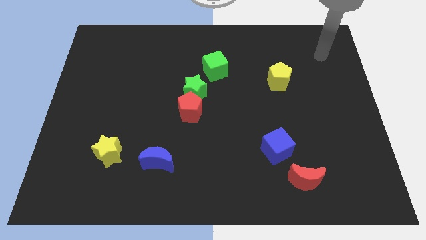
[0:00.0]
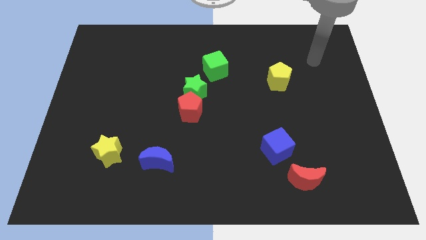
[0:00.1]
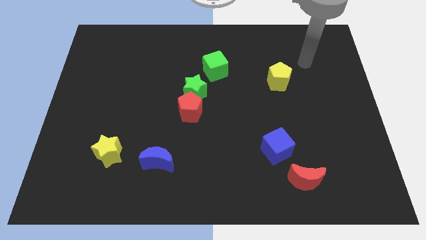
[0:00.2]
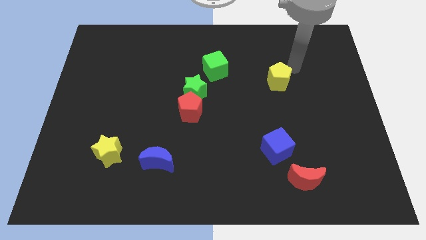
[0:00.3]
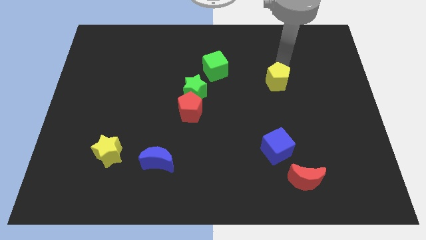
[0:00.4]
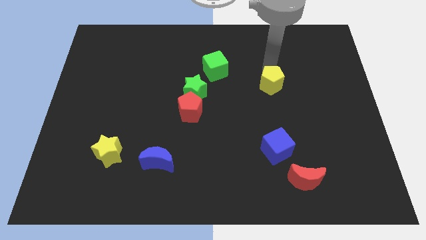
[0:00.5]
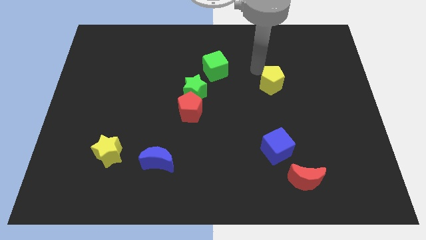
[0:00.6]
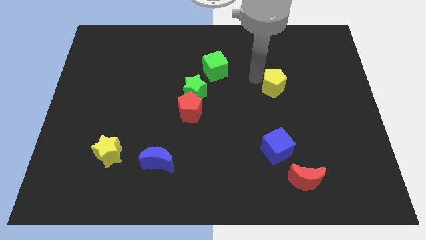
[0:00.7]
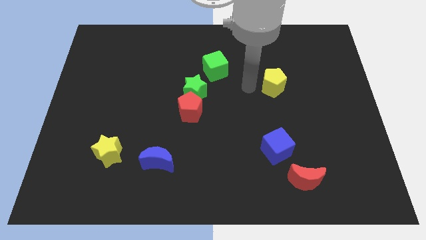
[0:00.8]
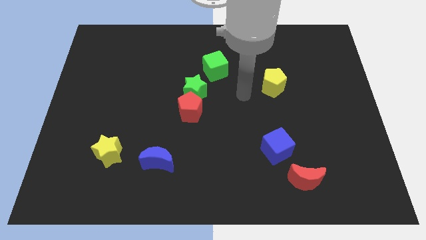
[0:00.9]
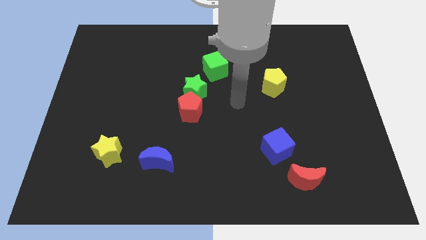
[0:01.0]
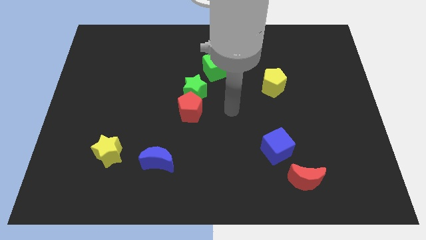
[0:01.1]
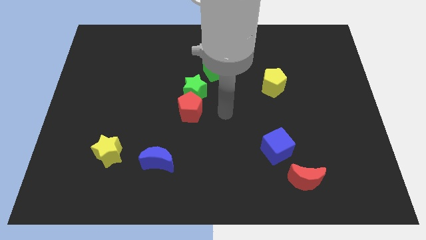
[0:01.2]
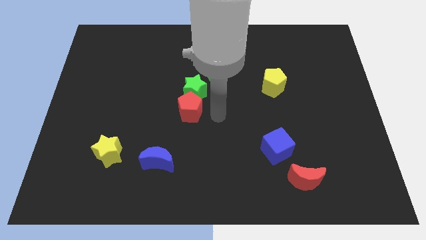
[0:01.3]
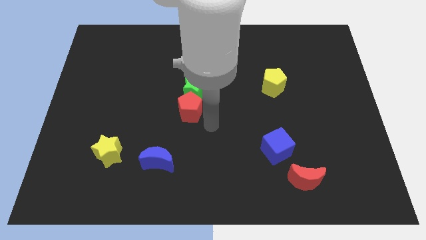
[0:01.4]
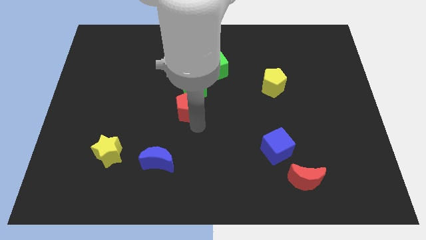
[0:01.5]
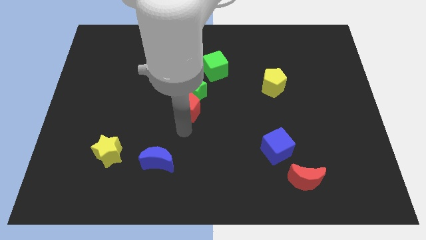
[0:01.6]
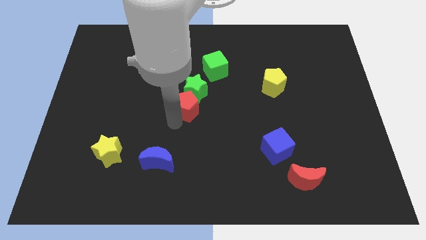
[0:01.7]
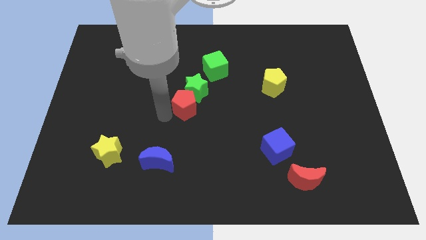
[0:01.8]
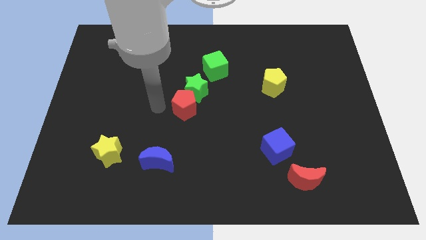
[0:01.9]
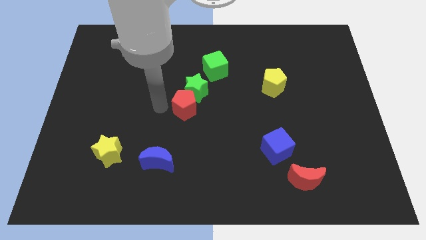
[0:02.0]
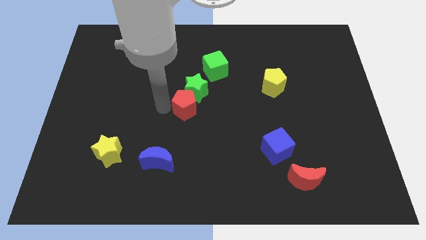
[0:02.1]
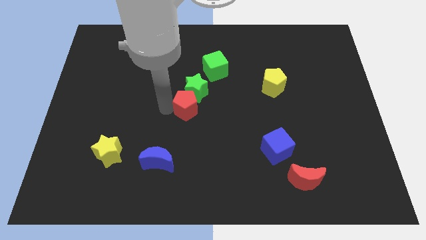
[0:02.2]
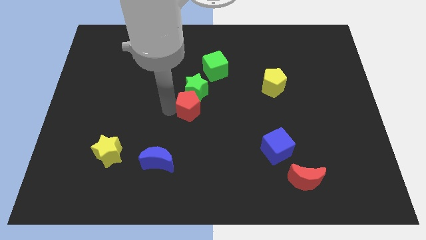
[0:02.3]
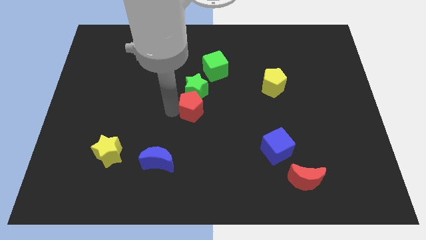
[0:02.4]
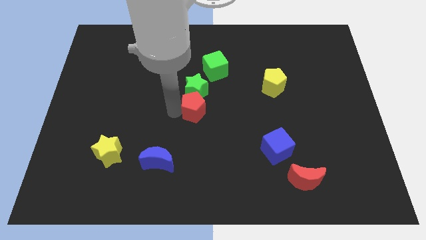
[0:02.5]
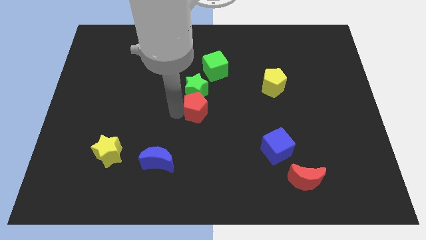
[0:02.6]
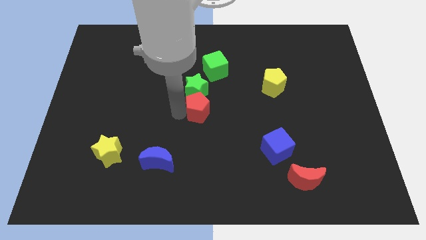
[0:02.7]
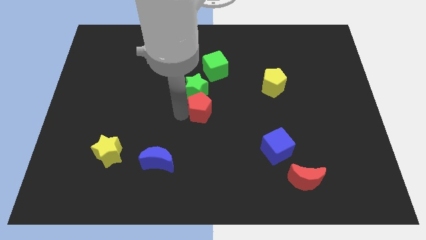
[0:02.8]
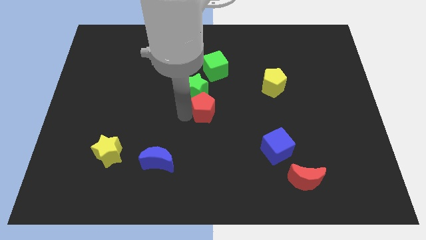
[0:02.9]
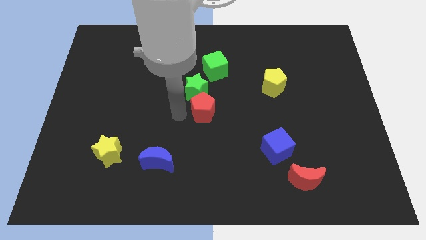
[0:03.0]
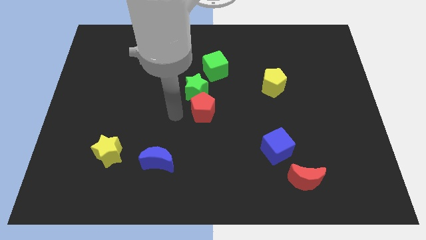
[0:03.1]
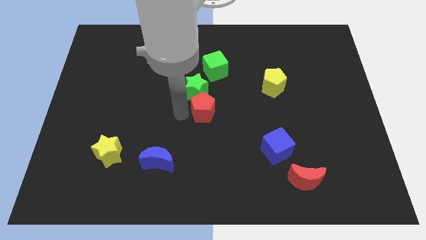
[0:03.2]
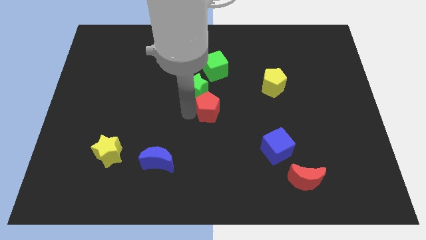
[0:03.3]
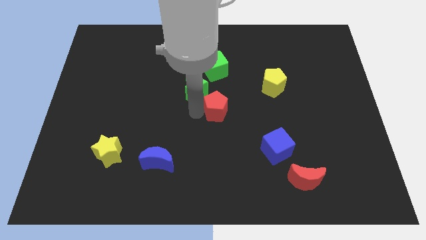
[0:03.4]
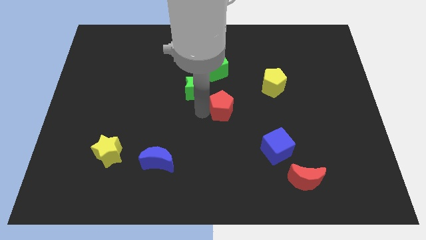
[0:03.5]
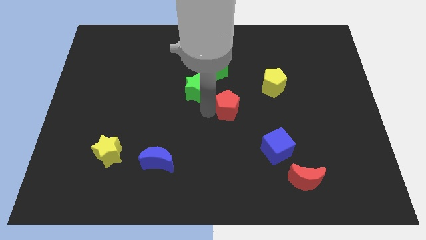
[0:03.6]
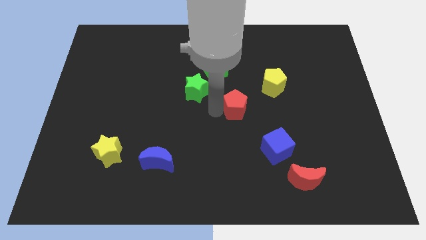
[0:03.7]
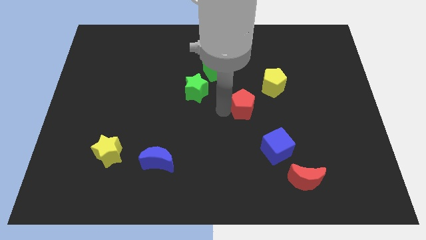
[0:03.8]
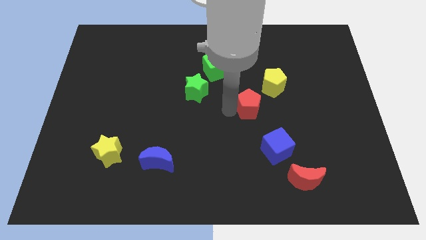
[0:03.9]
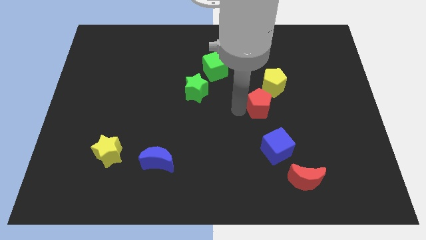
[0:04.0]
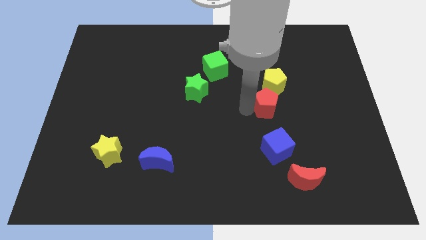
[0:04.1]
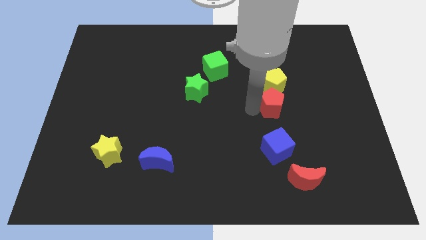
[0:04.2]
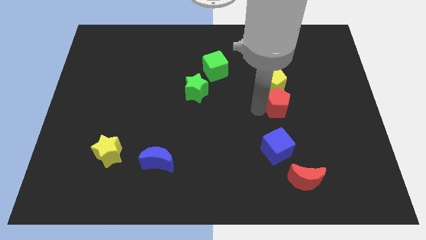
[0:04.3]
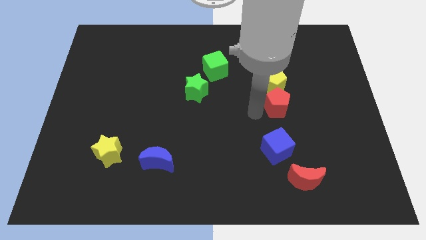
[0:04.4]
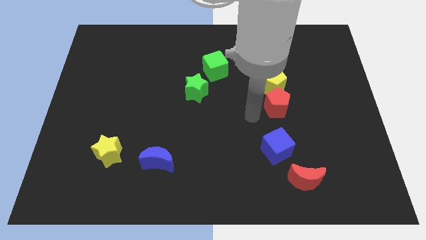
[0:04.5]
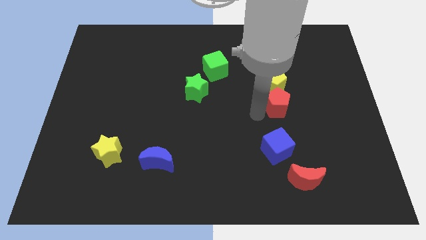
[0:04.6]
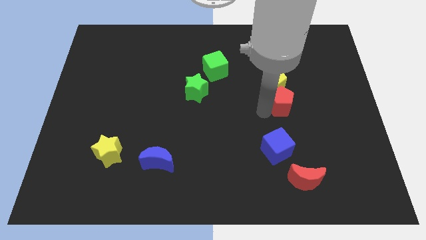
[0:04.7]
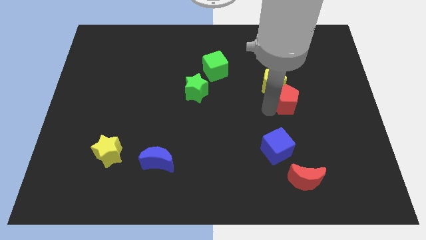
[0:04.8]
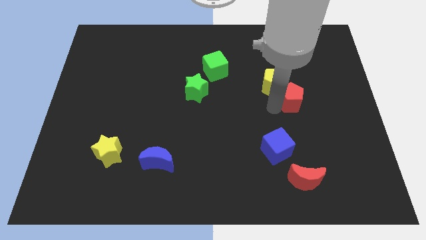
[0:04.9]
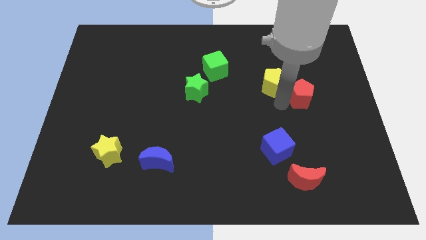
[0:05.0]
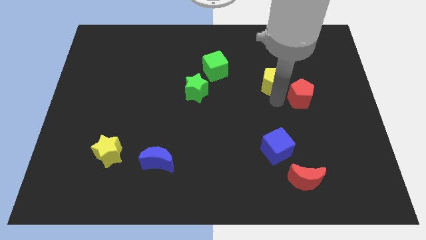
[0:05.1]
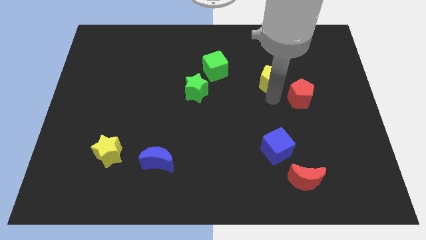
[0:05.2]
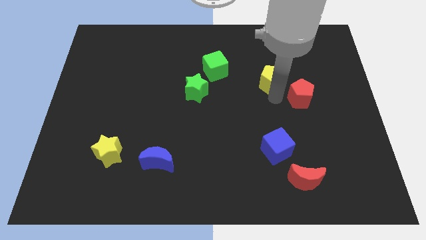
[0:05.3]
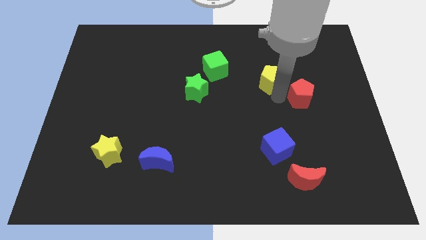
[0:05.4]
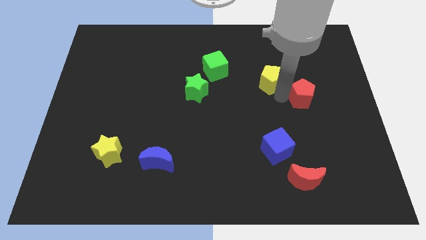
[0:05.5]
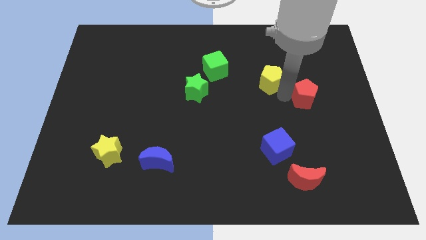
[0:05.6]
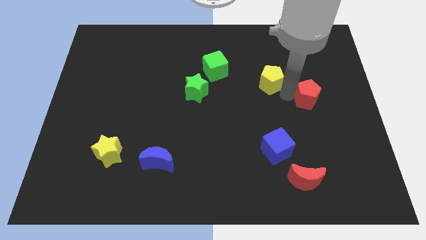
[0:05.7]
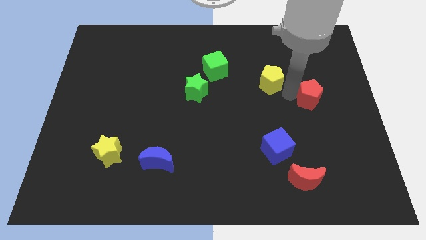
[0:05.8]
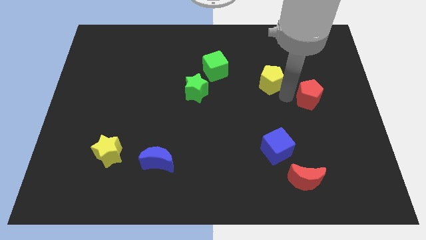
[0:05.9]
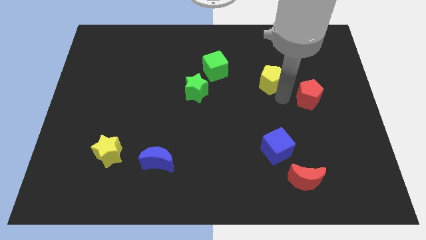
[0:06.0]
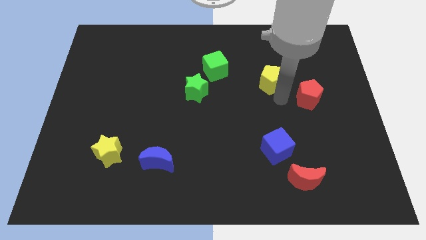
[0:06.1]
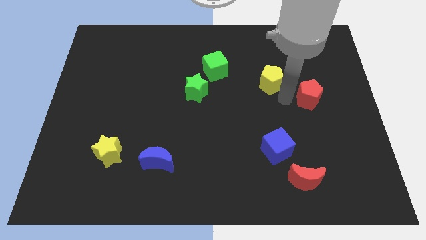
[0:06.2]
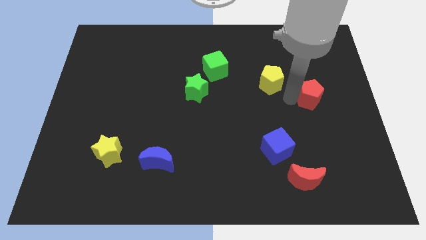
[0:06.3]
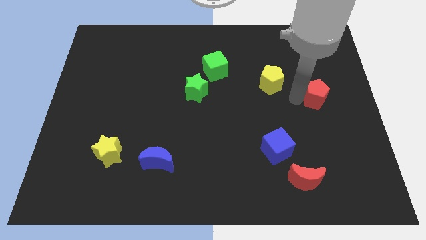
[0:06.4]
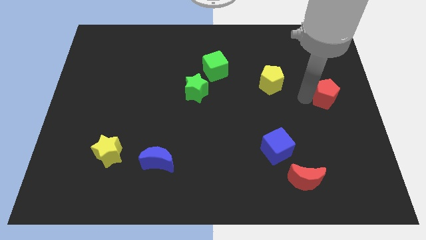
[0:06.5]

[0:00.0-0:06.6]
push the red pentagon to the right side of the board

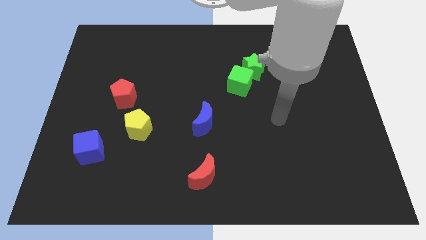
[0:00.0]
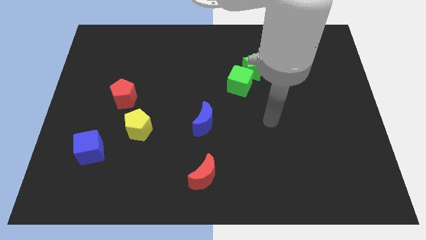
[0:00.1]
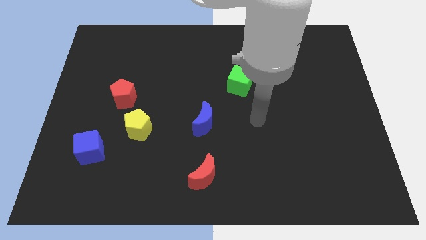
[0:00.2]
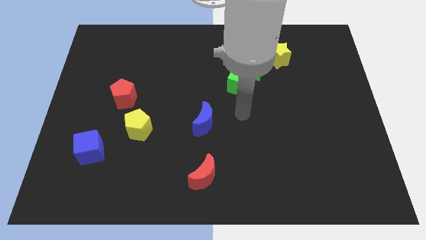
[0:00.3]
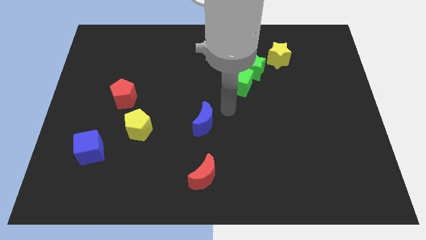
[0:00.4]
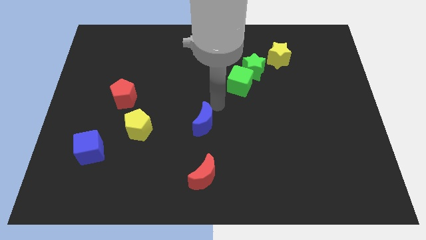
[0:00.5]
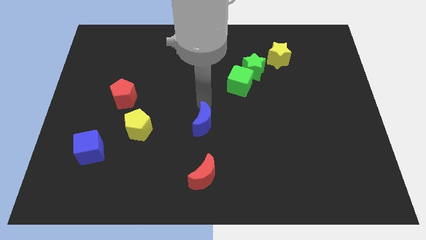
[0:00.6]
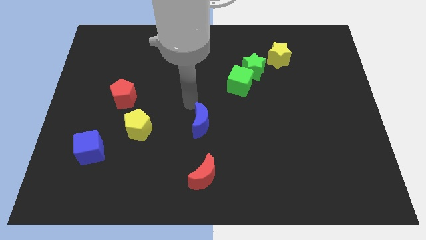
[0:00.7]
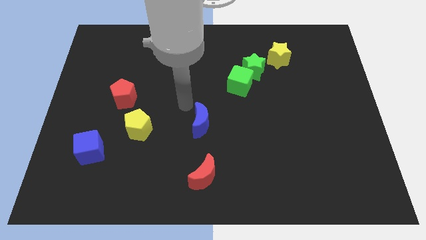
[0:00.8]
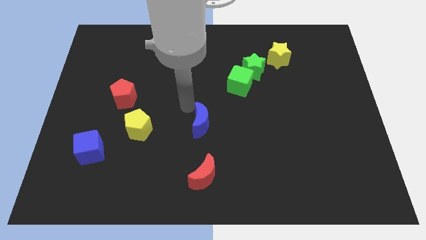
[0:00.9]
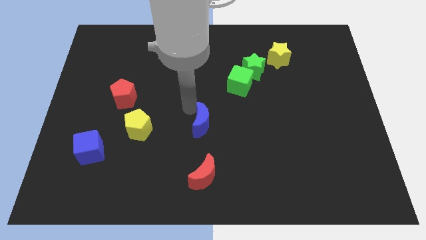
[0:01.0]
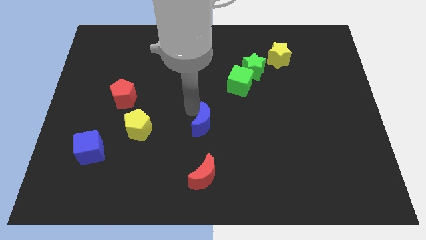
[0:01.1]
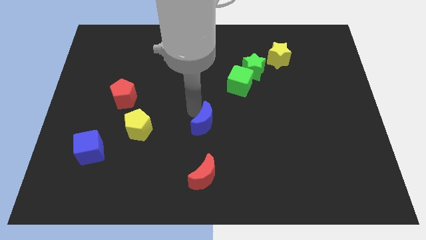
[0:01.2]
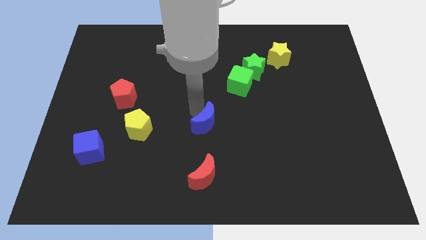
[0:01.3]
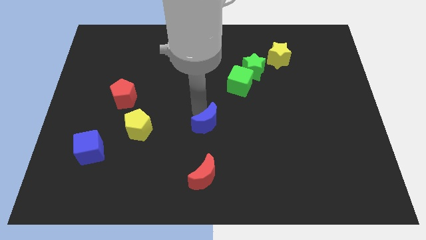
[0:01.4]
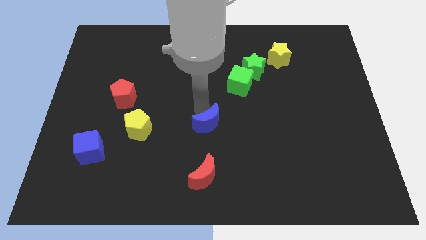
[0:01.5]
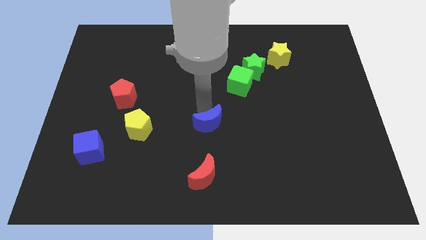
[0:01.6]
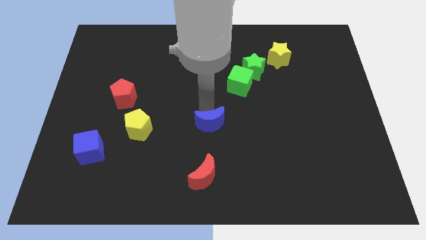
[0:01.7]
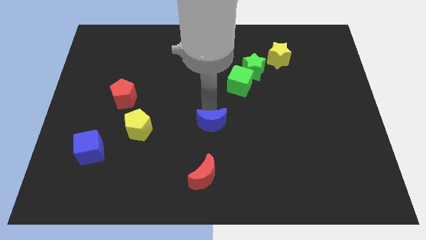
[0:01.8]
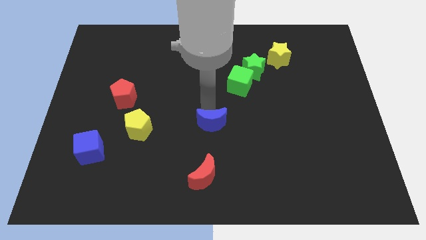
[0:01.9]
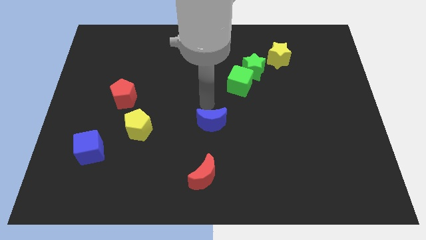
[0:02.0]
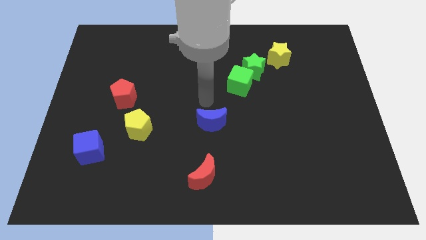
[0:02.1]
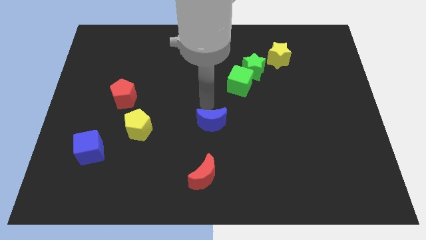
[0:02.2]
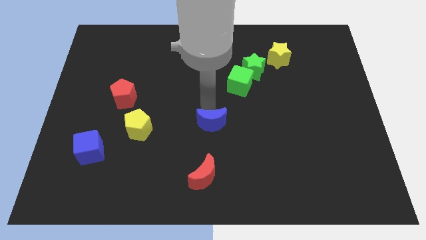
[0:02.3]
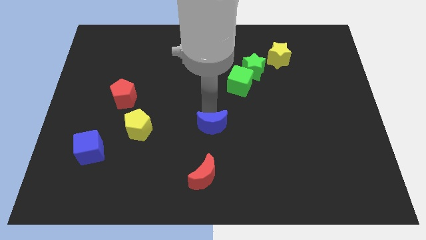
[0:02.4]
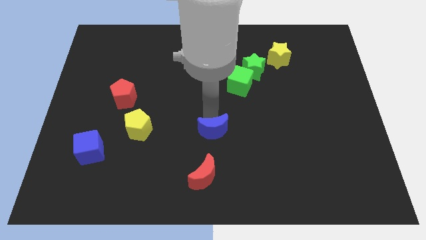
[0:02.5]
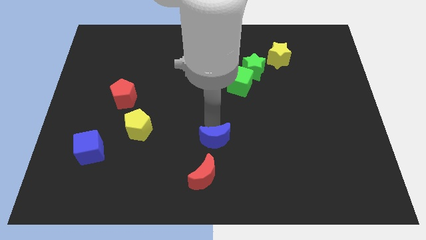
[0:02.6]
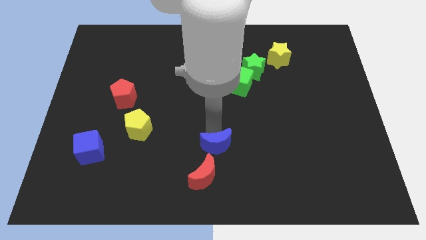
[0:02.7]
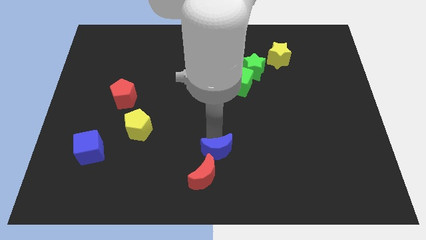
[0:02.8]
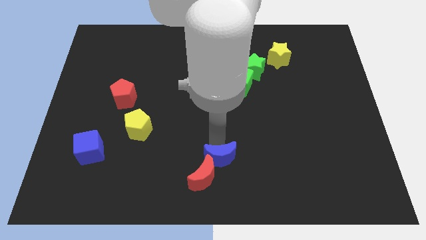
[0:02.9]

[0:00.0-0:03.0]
push the blue moon to the bottom
